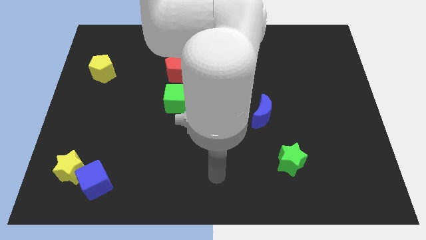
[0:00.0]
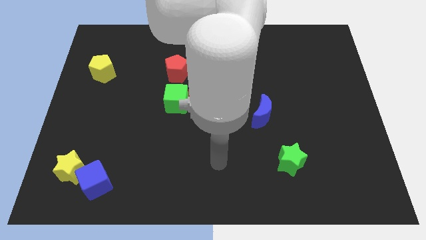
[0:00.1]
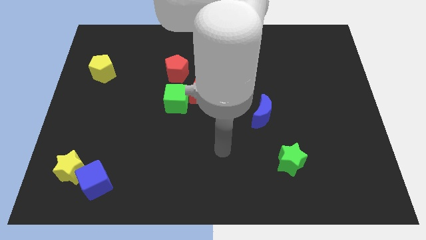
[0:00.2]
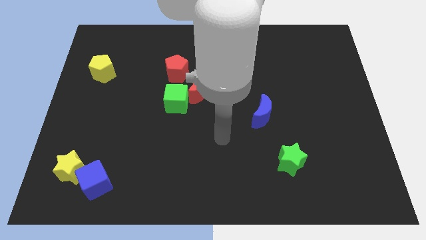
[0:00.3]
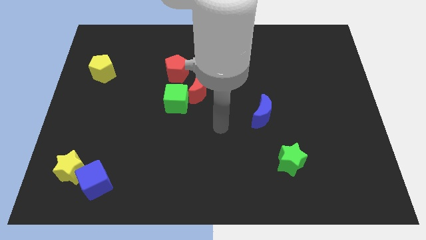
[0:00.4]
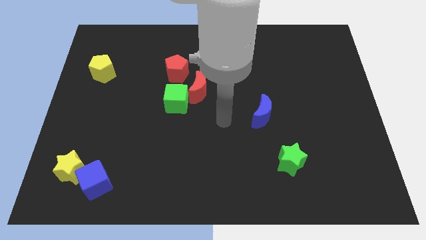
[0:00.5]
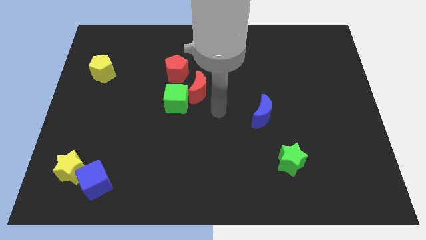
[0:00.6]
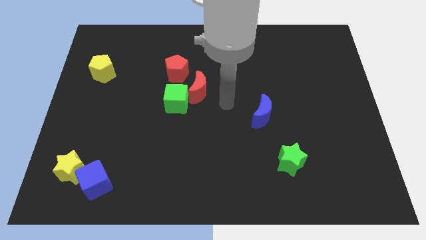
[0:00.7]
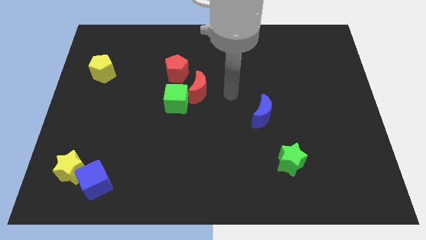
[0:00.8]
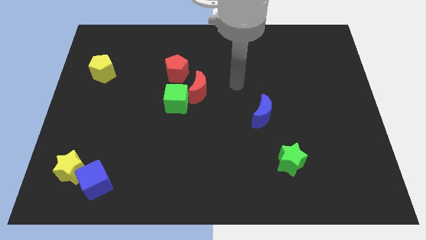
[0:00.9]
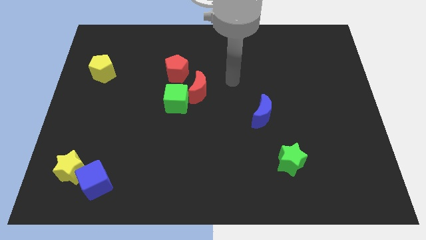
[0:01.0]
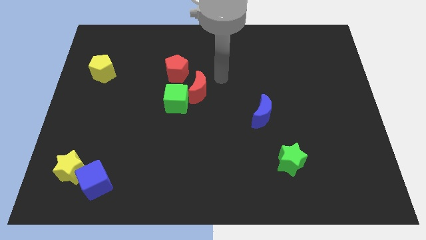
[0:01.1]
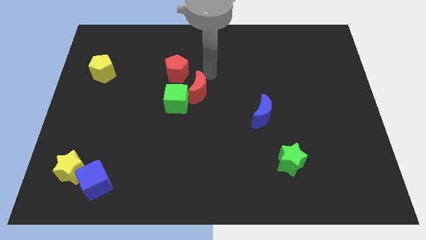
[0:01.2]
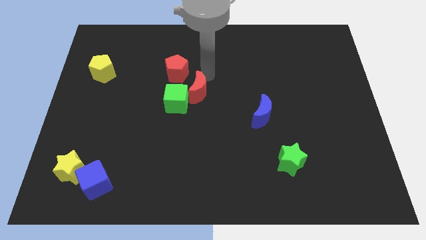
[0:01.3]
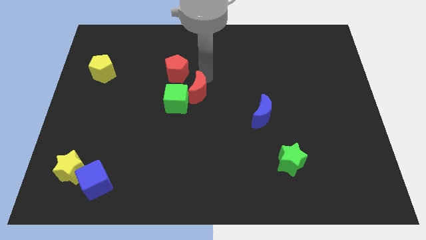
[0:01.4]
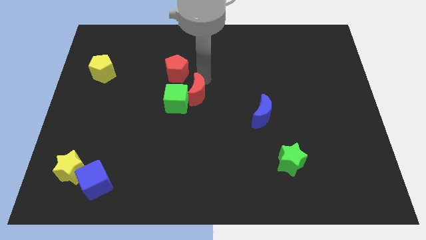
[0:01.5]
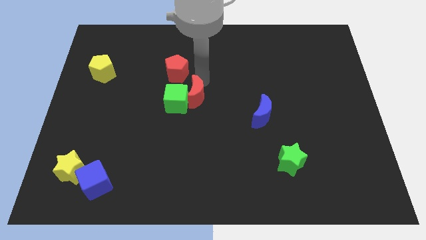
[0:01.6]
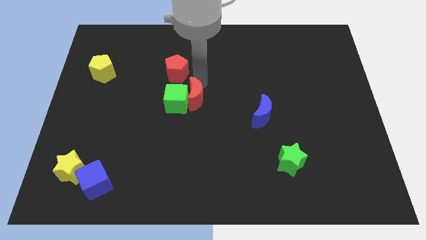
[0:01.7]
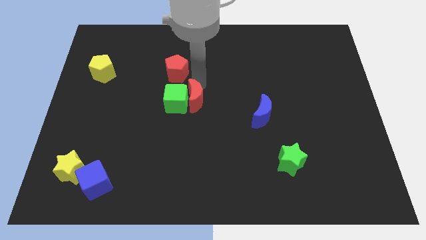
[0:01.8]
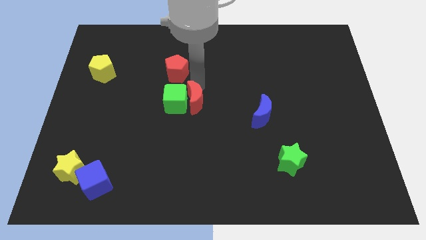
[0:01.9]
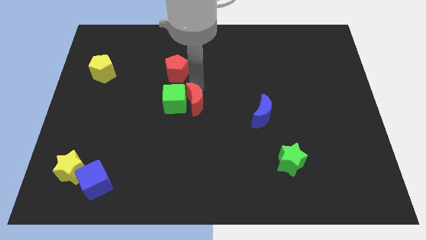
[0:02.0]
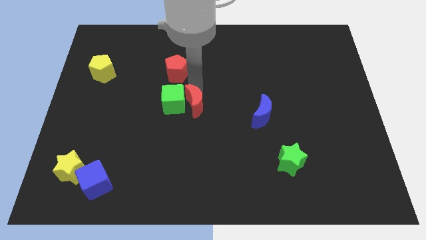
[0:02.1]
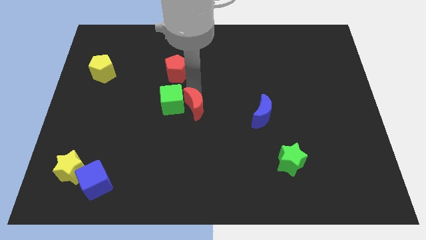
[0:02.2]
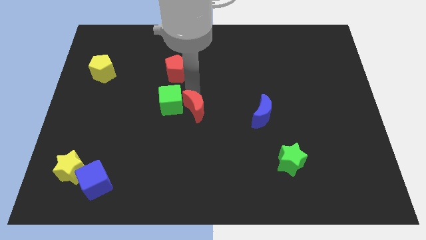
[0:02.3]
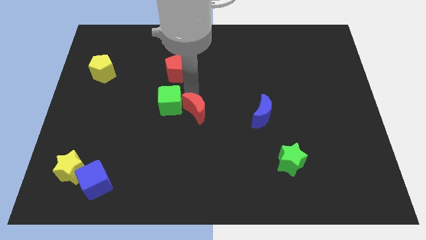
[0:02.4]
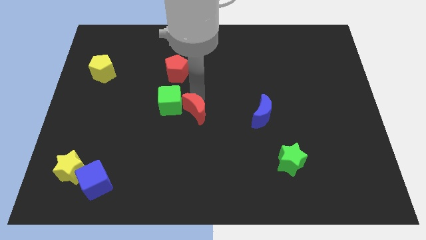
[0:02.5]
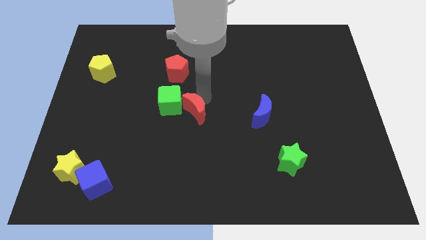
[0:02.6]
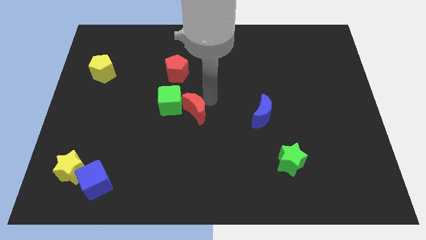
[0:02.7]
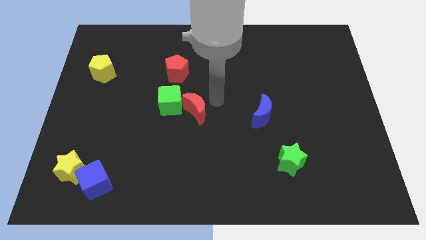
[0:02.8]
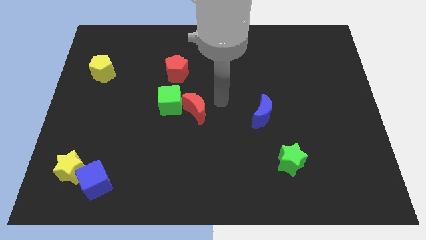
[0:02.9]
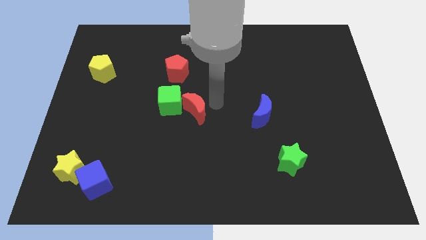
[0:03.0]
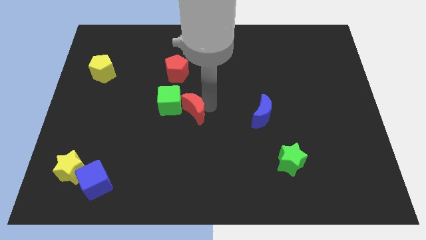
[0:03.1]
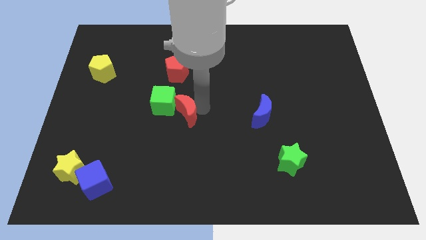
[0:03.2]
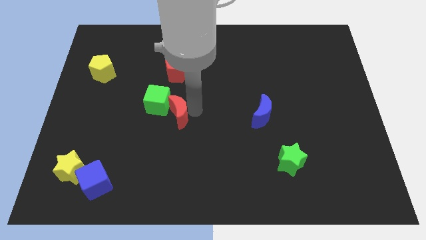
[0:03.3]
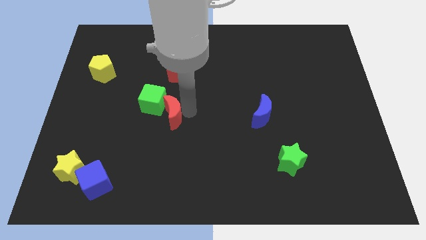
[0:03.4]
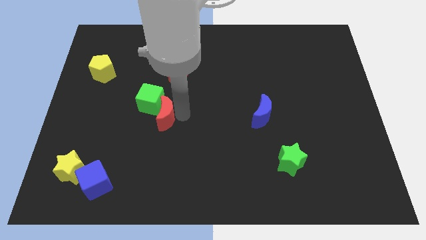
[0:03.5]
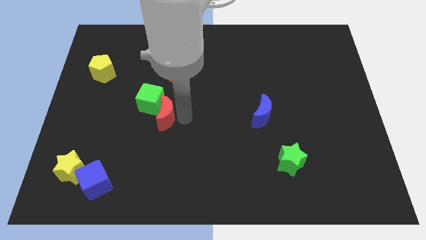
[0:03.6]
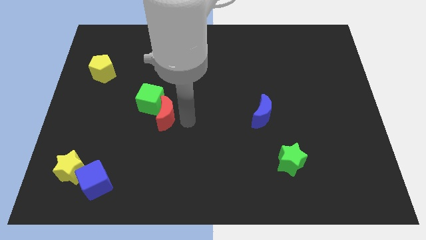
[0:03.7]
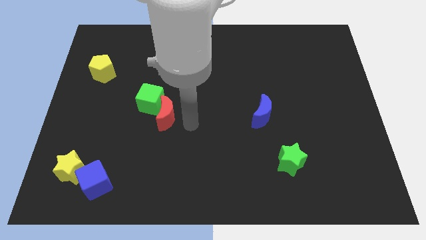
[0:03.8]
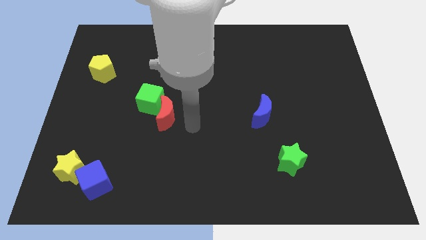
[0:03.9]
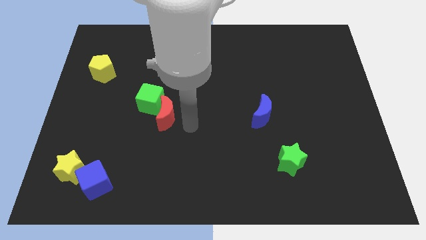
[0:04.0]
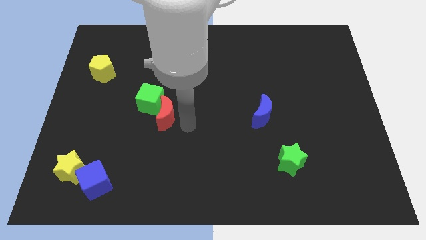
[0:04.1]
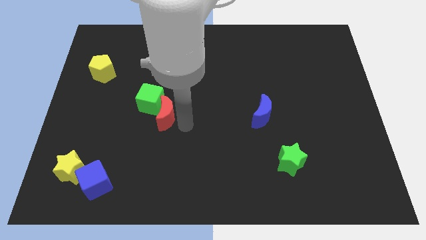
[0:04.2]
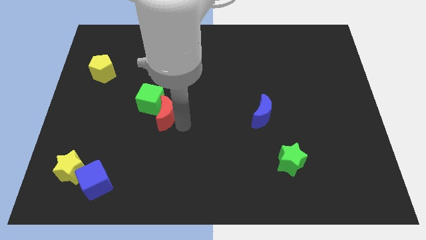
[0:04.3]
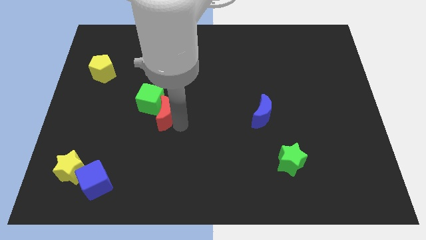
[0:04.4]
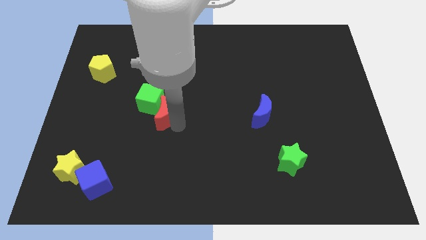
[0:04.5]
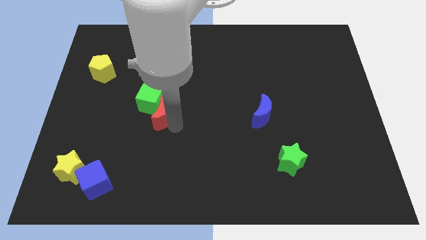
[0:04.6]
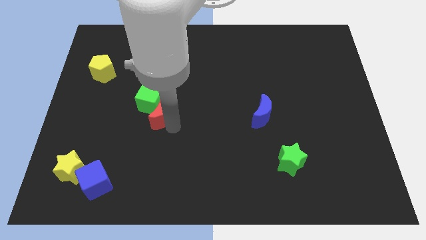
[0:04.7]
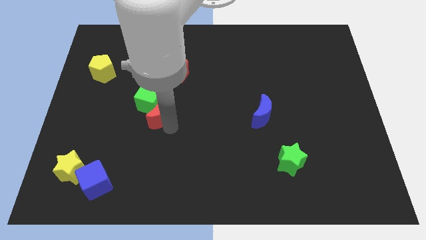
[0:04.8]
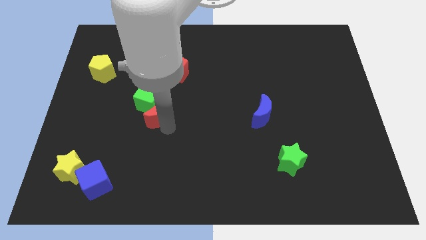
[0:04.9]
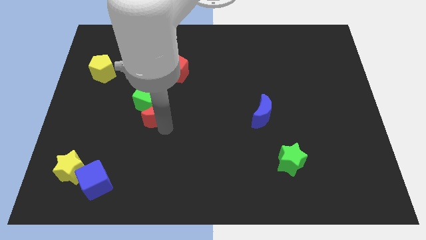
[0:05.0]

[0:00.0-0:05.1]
push the red moon left a little

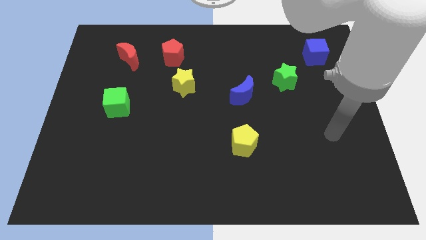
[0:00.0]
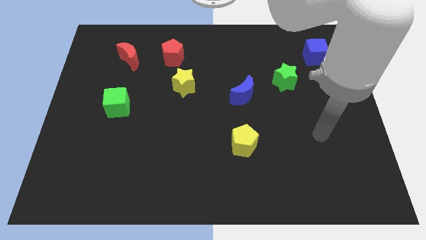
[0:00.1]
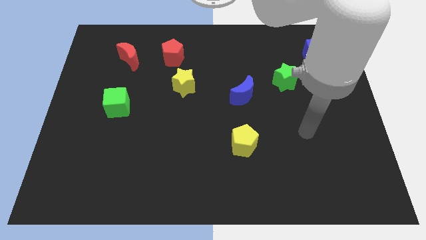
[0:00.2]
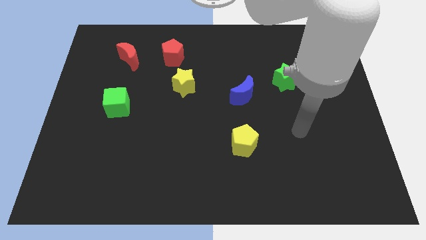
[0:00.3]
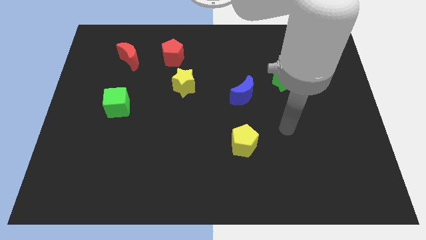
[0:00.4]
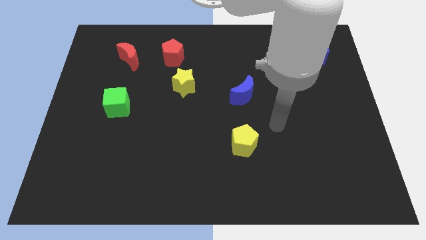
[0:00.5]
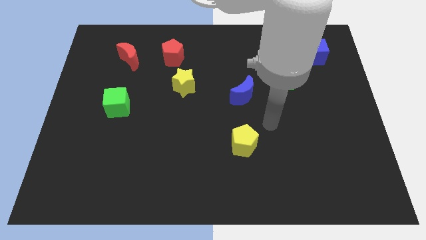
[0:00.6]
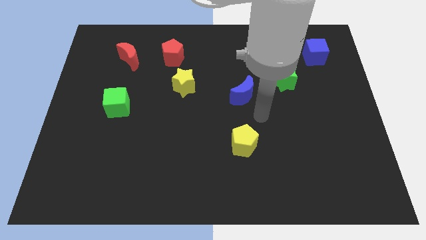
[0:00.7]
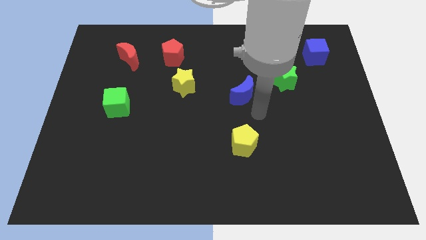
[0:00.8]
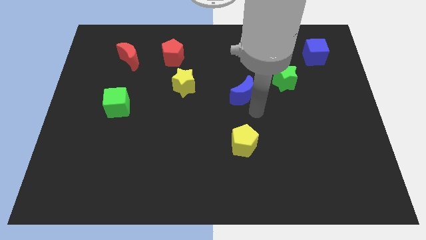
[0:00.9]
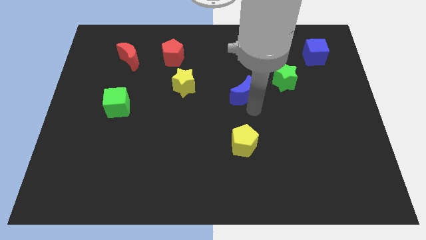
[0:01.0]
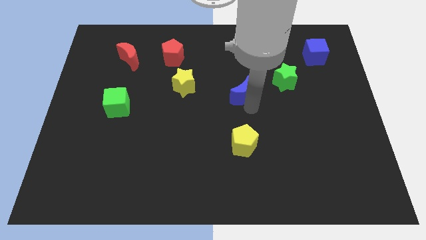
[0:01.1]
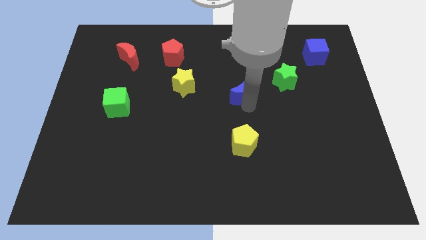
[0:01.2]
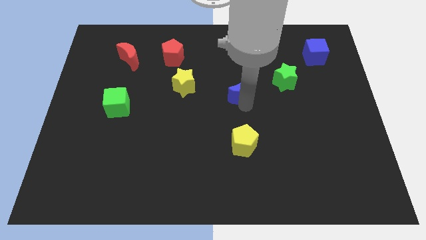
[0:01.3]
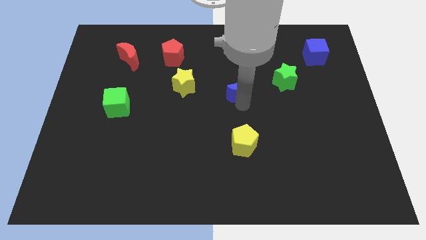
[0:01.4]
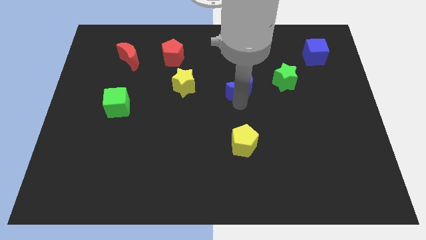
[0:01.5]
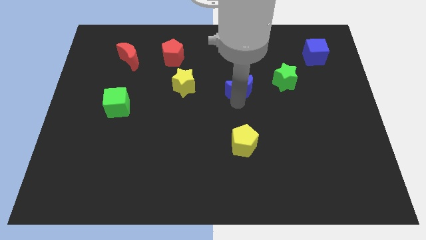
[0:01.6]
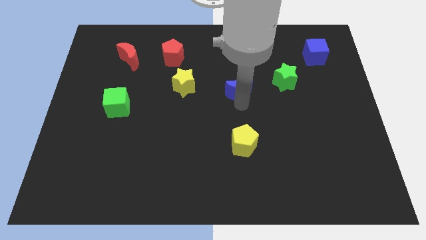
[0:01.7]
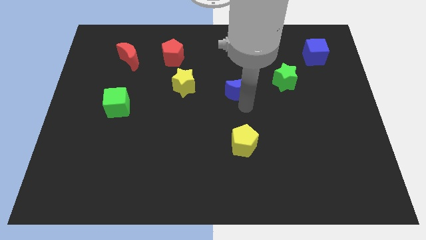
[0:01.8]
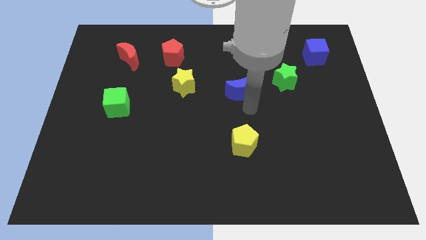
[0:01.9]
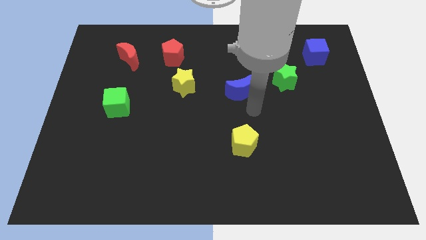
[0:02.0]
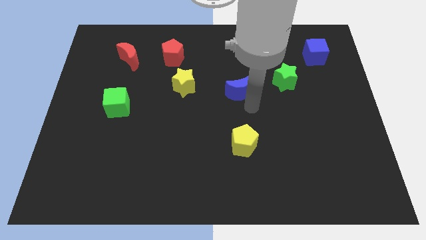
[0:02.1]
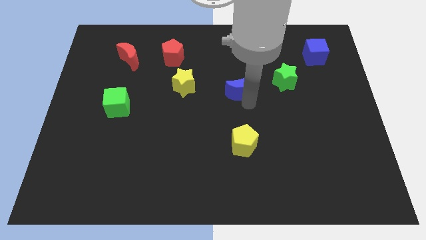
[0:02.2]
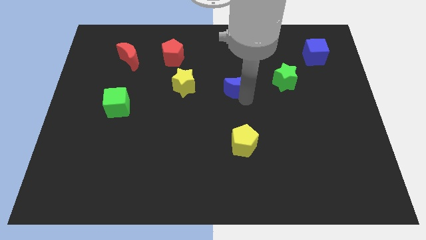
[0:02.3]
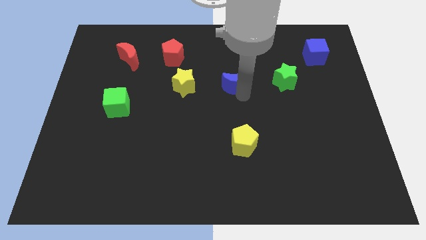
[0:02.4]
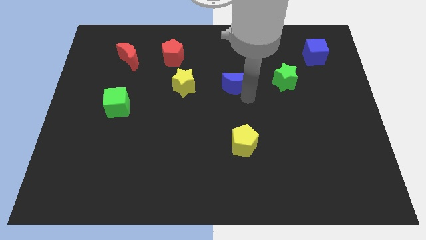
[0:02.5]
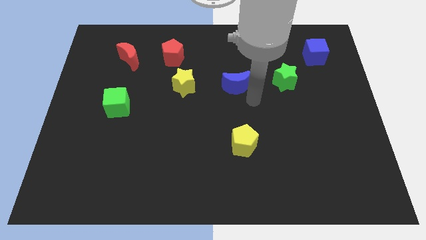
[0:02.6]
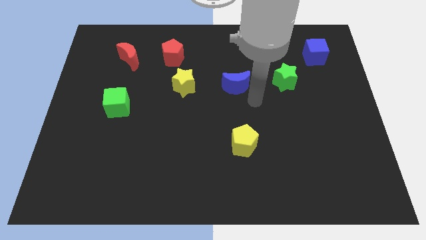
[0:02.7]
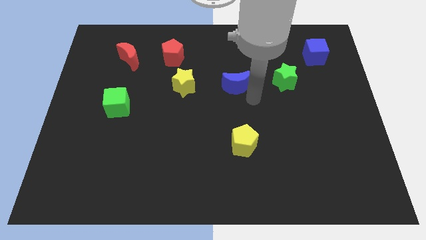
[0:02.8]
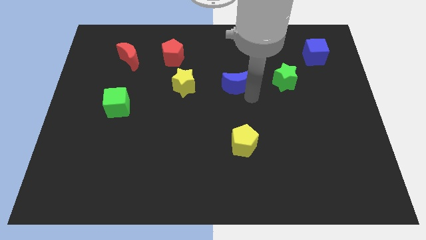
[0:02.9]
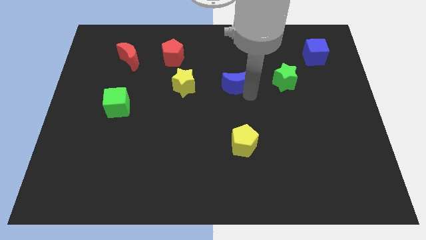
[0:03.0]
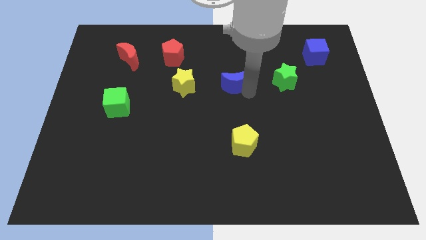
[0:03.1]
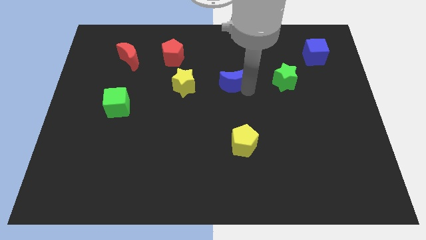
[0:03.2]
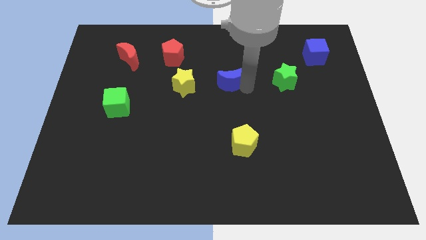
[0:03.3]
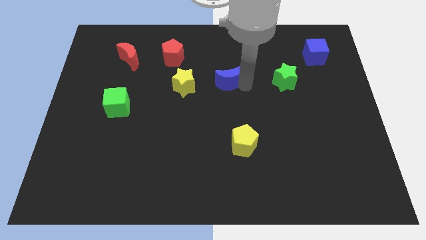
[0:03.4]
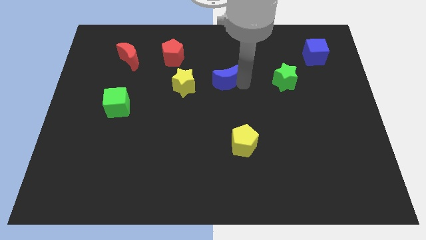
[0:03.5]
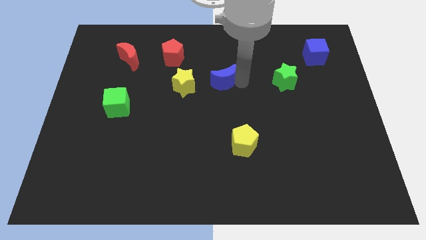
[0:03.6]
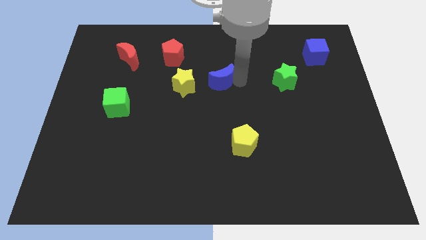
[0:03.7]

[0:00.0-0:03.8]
slightly slide the blue moon diagonally up and to the left
